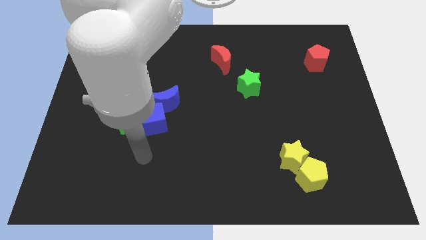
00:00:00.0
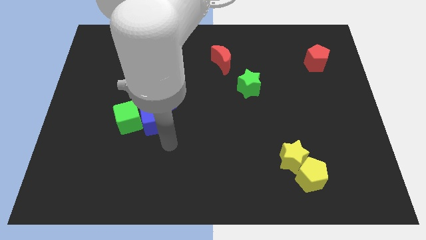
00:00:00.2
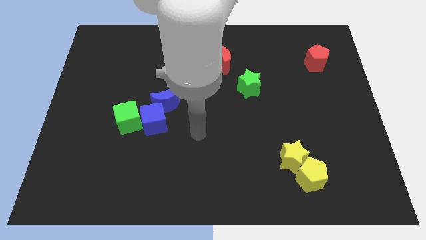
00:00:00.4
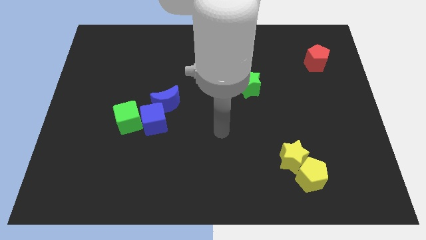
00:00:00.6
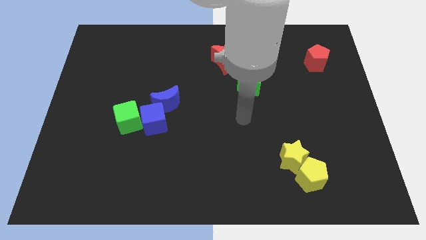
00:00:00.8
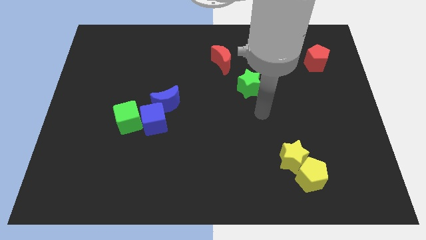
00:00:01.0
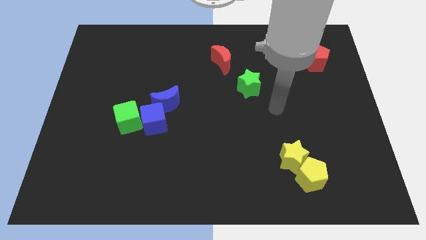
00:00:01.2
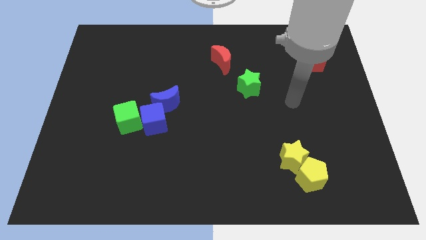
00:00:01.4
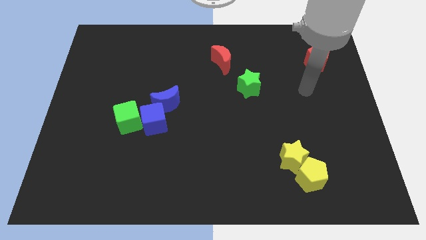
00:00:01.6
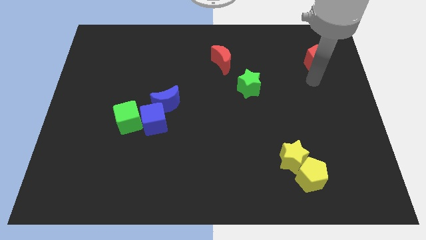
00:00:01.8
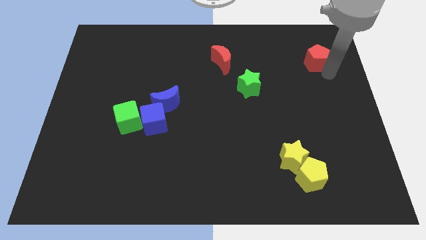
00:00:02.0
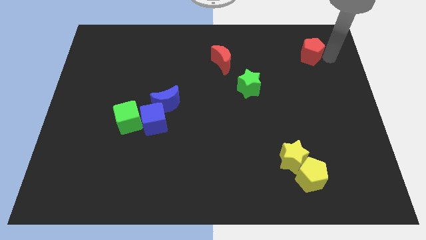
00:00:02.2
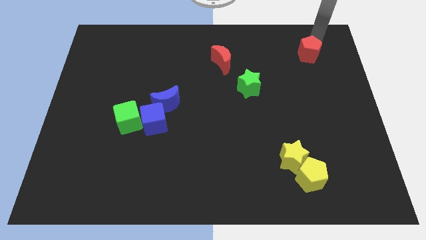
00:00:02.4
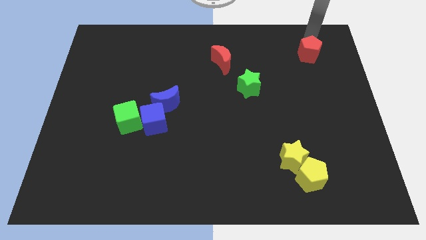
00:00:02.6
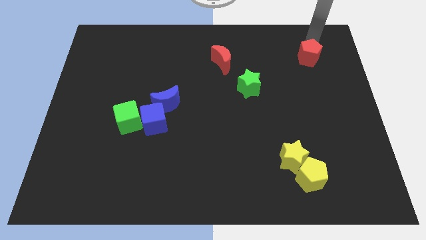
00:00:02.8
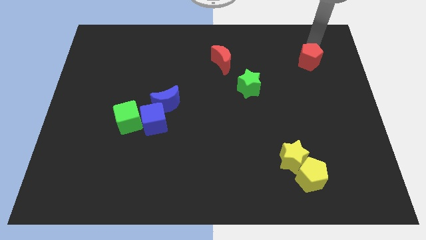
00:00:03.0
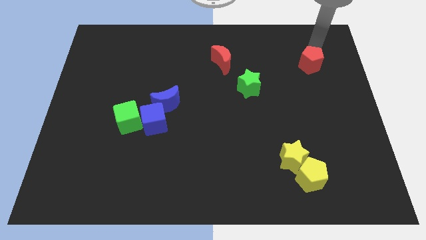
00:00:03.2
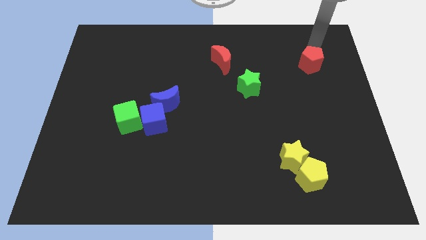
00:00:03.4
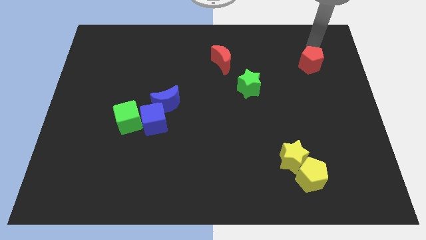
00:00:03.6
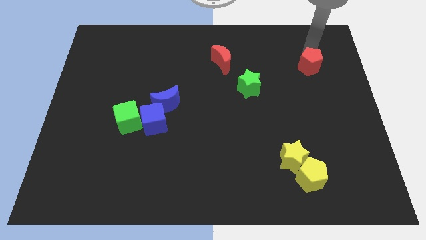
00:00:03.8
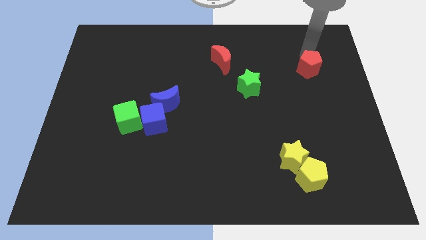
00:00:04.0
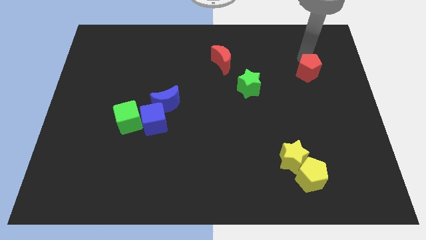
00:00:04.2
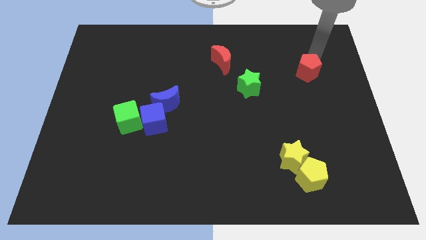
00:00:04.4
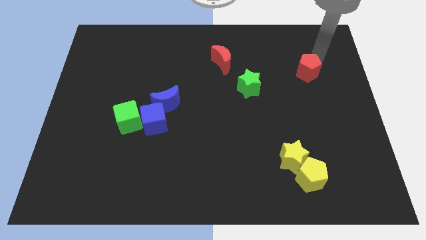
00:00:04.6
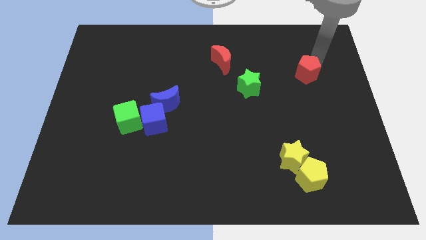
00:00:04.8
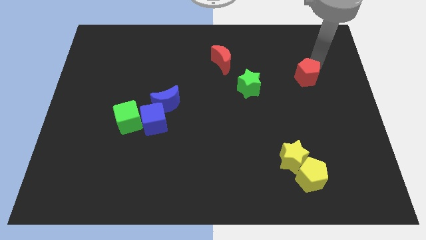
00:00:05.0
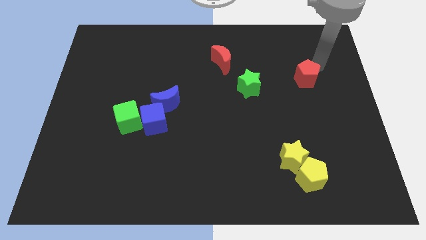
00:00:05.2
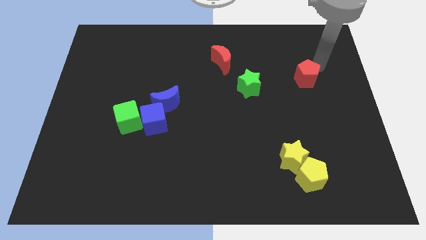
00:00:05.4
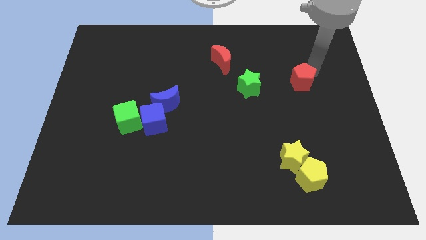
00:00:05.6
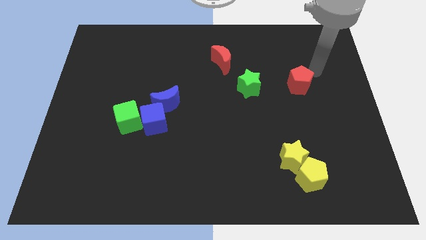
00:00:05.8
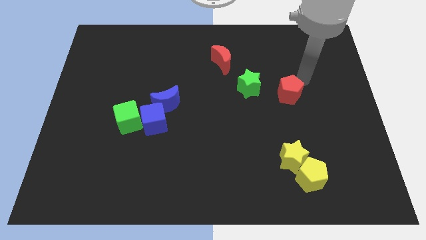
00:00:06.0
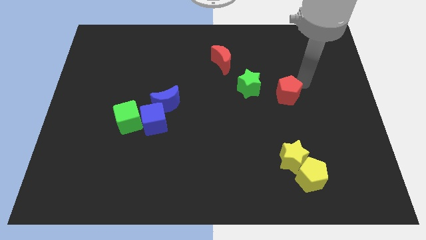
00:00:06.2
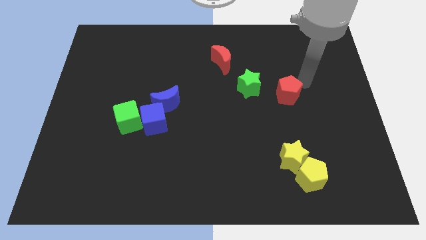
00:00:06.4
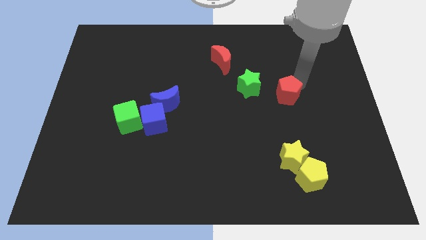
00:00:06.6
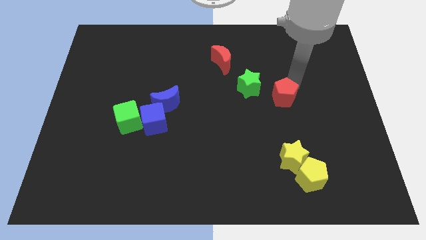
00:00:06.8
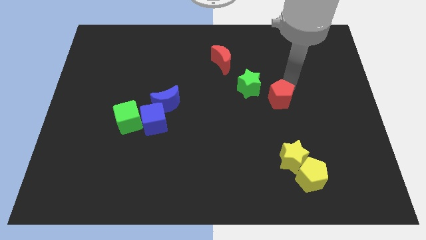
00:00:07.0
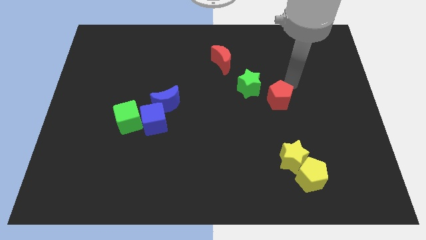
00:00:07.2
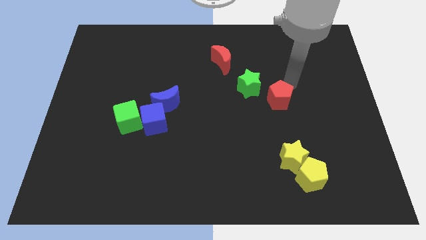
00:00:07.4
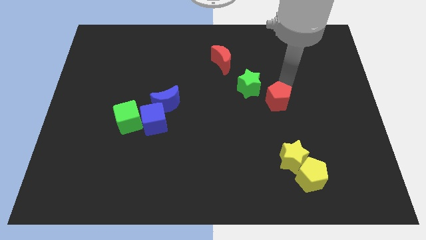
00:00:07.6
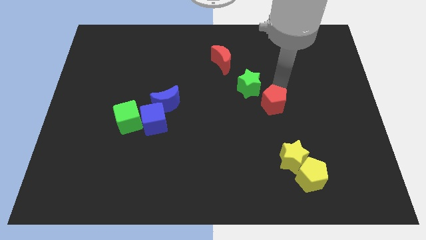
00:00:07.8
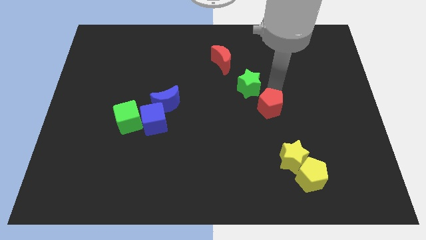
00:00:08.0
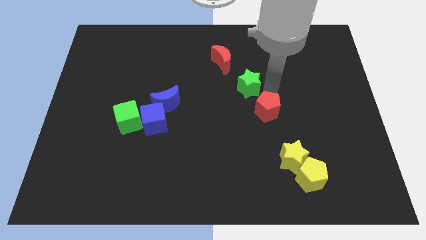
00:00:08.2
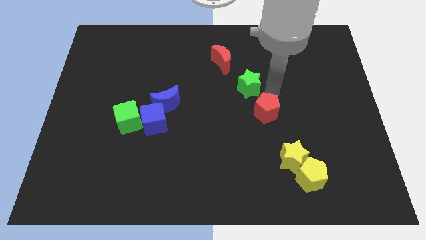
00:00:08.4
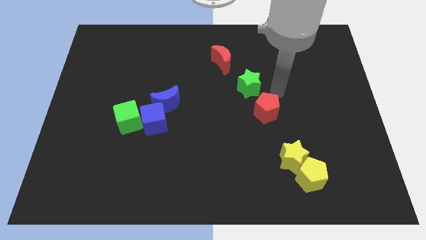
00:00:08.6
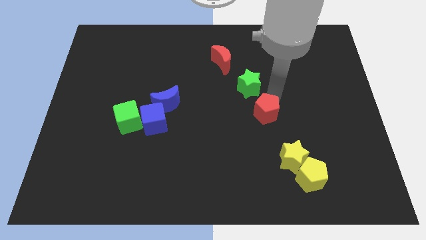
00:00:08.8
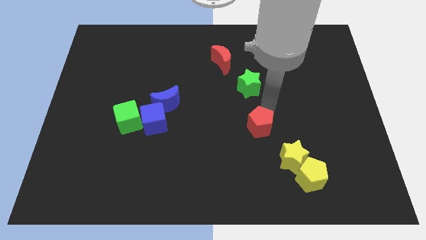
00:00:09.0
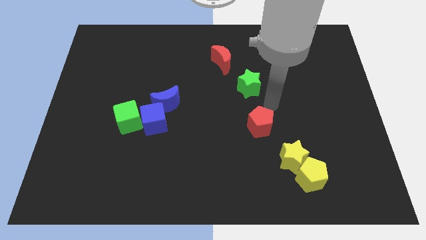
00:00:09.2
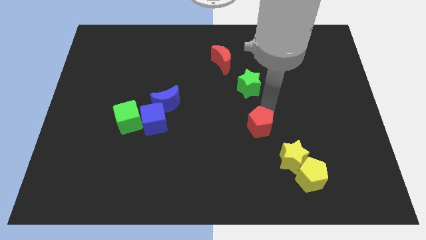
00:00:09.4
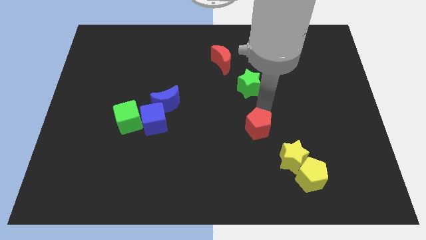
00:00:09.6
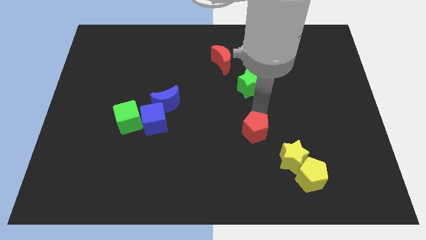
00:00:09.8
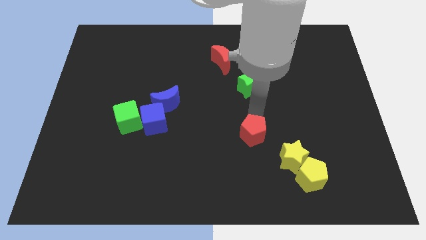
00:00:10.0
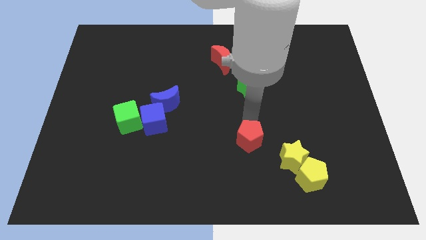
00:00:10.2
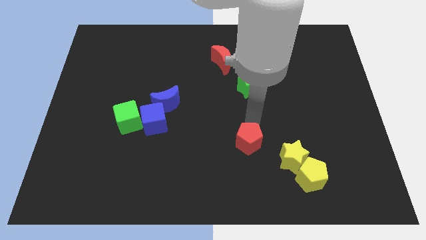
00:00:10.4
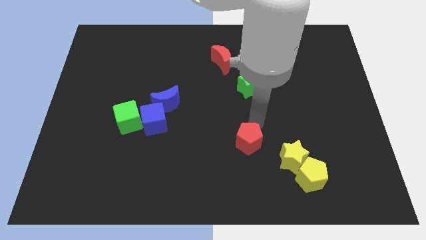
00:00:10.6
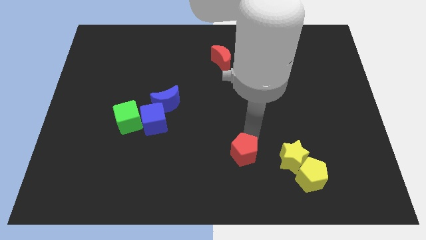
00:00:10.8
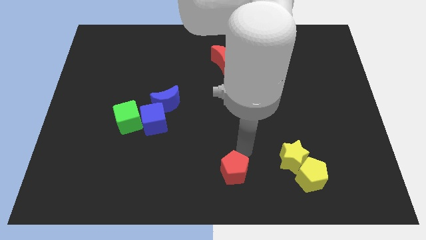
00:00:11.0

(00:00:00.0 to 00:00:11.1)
move the red pentagon to the bottom

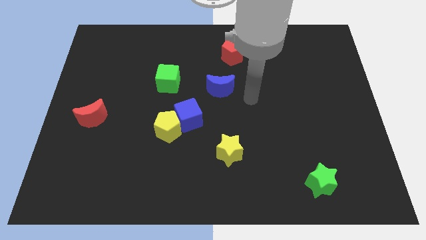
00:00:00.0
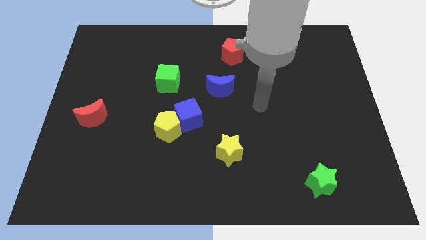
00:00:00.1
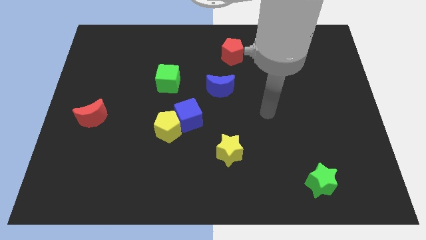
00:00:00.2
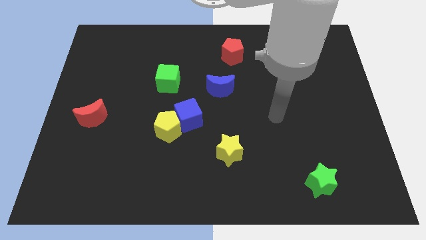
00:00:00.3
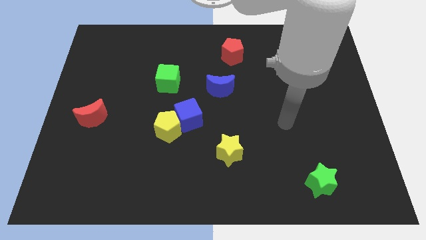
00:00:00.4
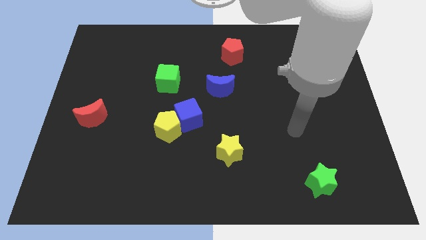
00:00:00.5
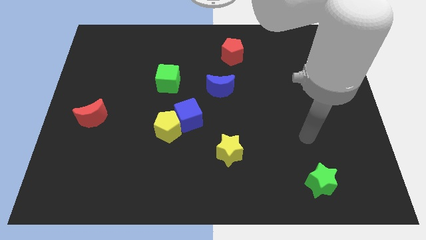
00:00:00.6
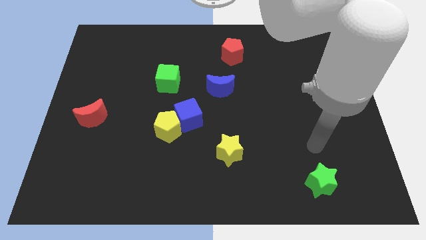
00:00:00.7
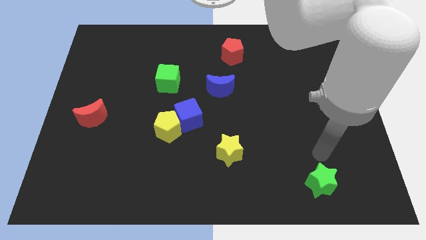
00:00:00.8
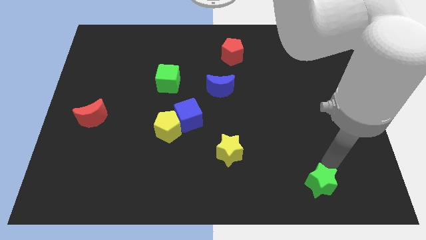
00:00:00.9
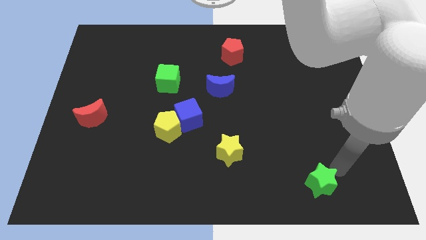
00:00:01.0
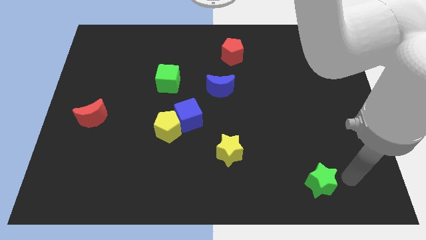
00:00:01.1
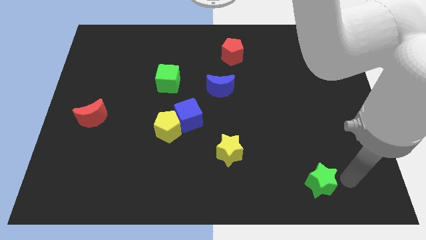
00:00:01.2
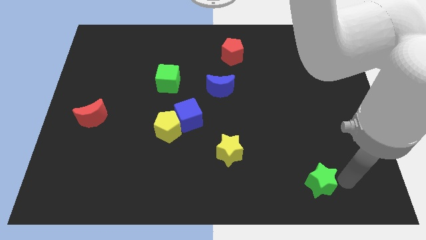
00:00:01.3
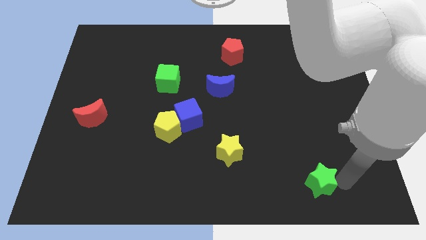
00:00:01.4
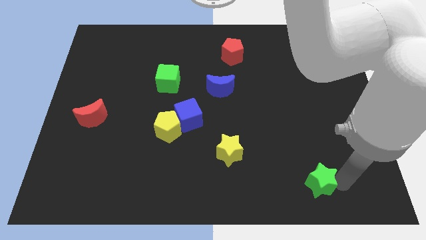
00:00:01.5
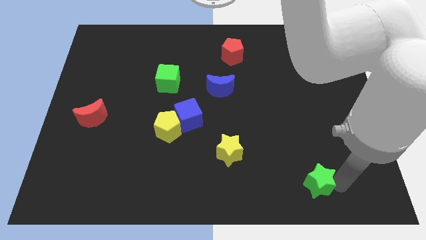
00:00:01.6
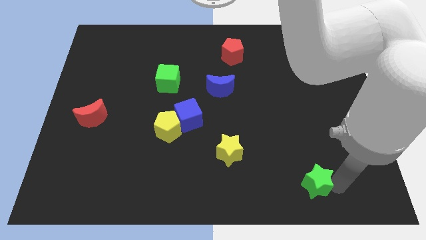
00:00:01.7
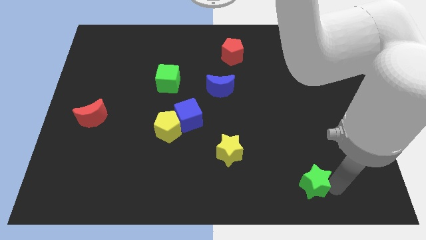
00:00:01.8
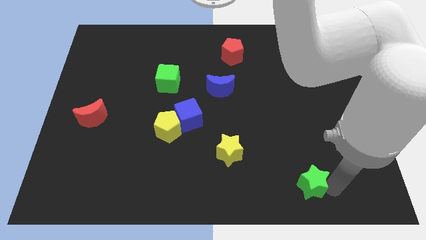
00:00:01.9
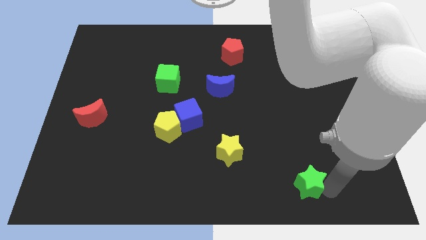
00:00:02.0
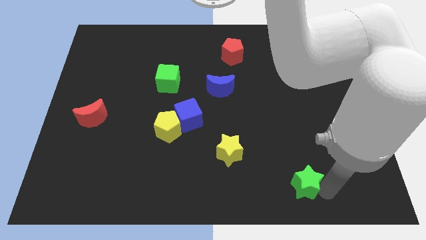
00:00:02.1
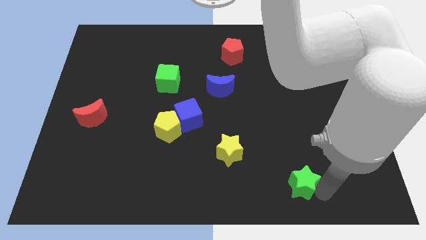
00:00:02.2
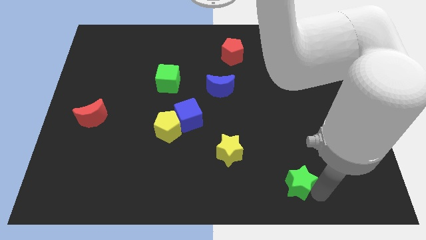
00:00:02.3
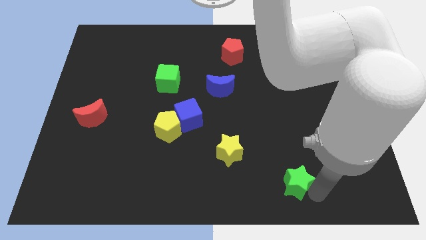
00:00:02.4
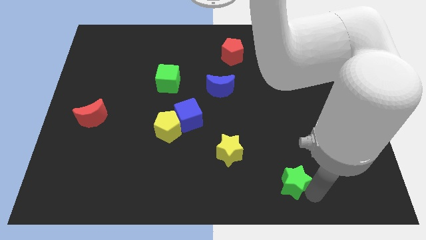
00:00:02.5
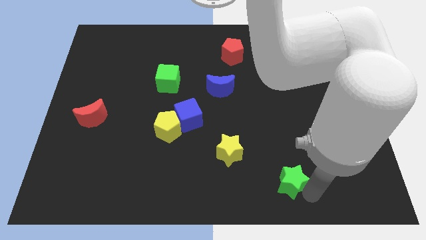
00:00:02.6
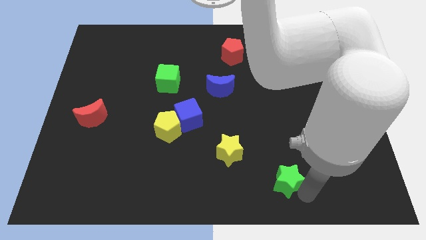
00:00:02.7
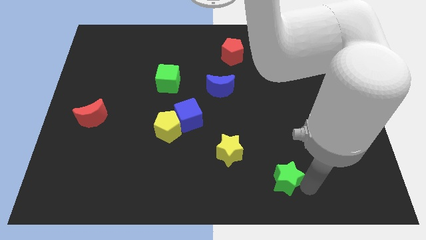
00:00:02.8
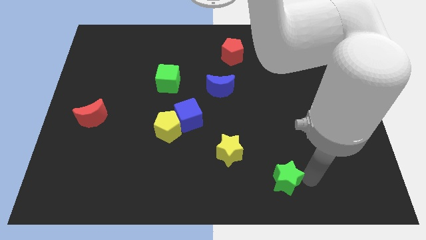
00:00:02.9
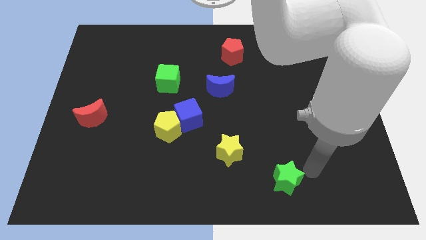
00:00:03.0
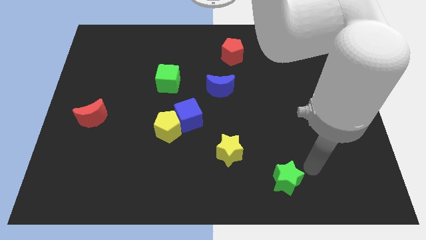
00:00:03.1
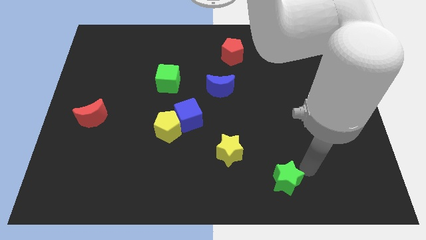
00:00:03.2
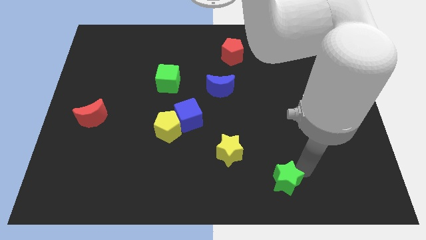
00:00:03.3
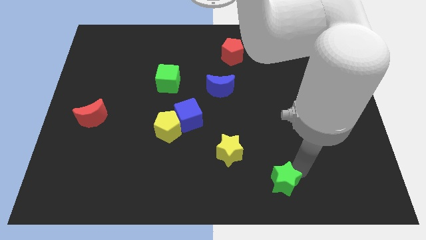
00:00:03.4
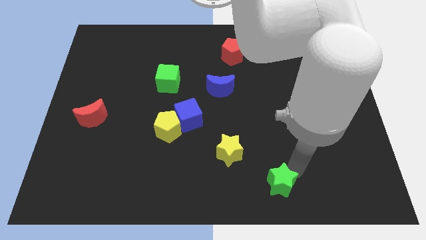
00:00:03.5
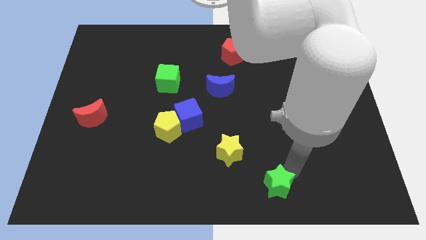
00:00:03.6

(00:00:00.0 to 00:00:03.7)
slide the green star to the bottom side
